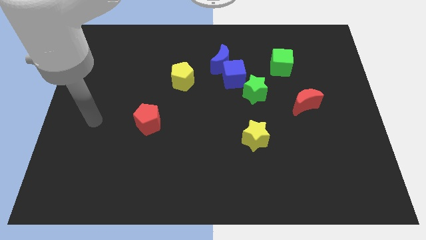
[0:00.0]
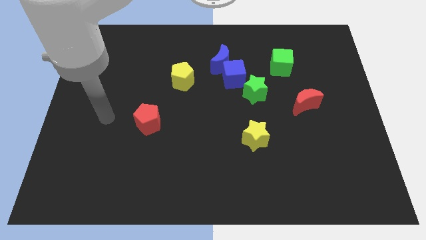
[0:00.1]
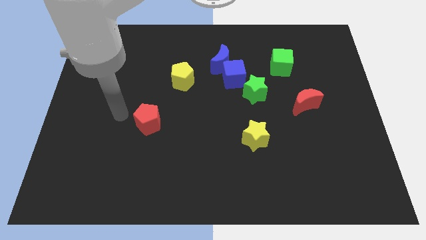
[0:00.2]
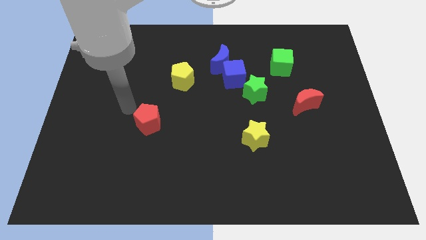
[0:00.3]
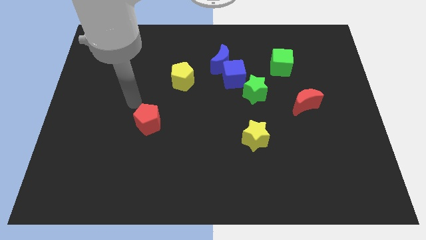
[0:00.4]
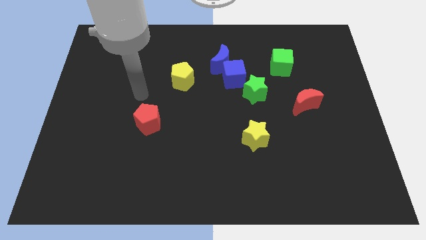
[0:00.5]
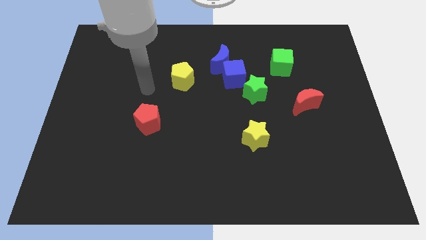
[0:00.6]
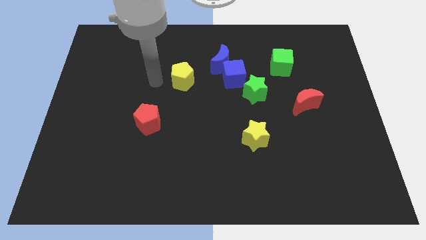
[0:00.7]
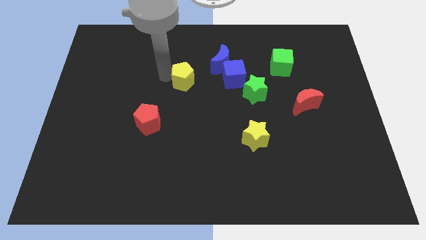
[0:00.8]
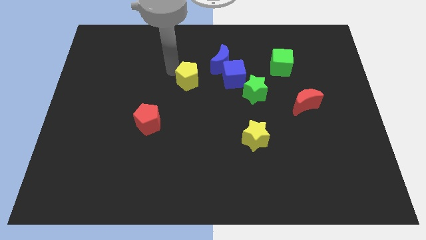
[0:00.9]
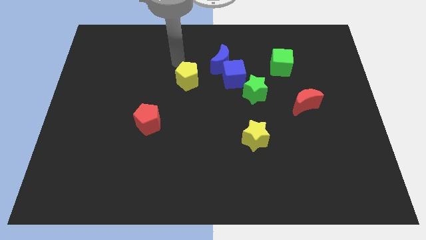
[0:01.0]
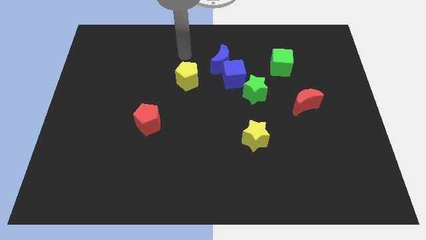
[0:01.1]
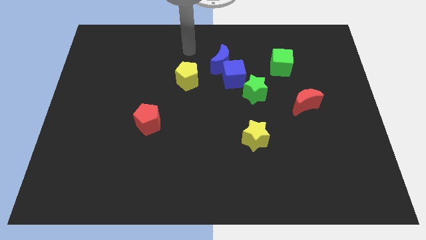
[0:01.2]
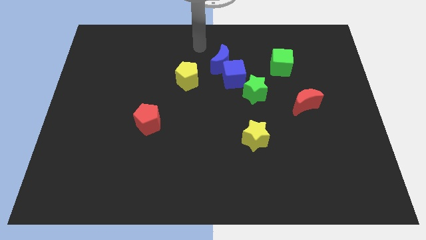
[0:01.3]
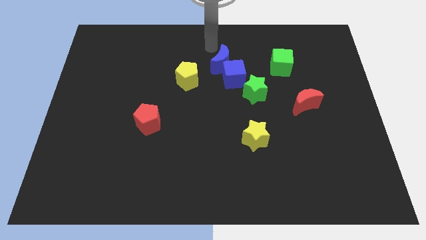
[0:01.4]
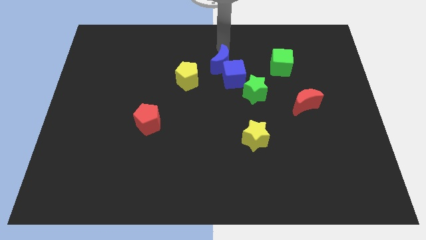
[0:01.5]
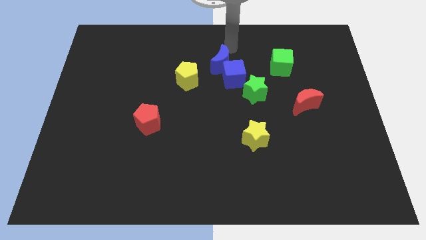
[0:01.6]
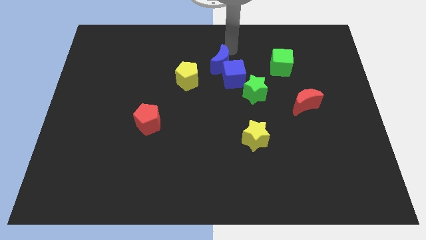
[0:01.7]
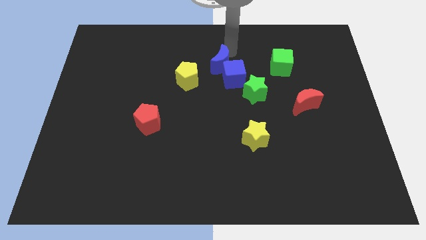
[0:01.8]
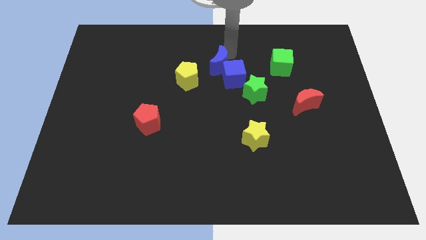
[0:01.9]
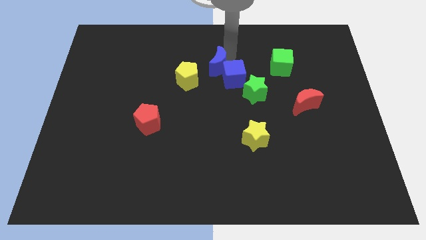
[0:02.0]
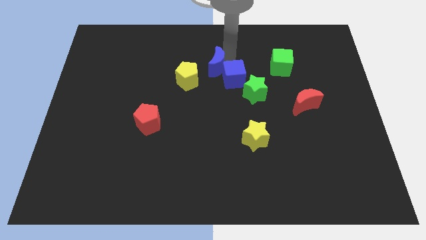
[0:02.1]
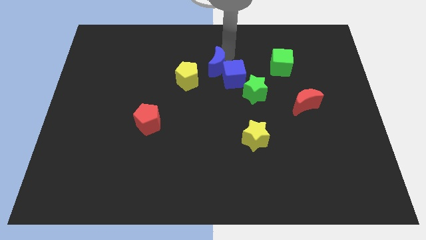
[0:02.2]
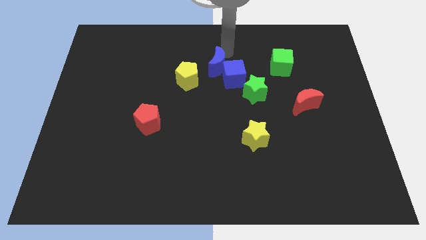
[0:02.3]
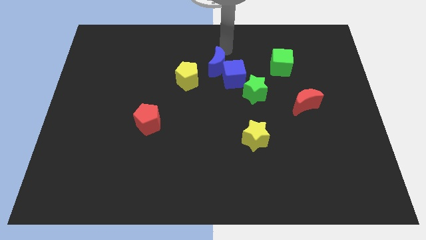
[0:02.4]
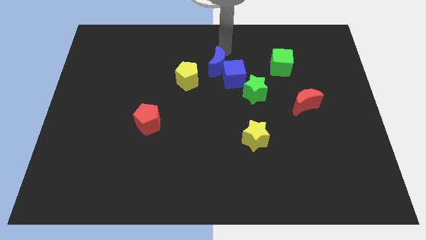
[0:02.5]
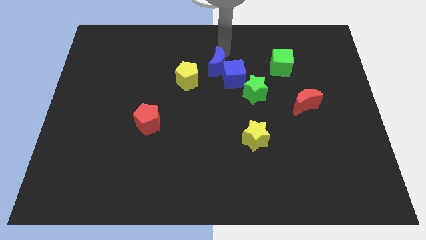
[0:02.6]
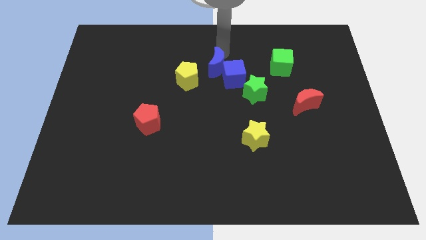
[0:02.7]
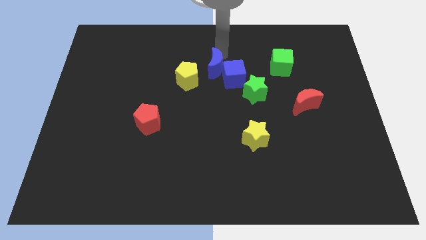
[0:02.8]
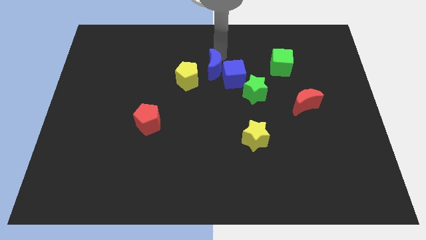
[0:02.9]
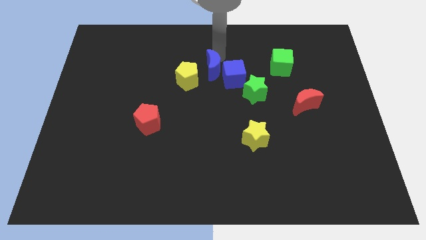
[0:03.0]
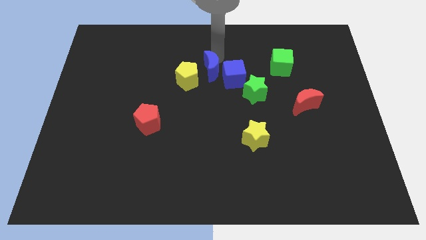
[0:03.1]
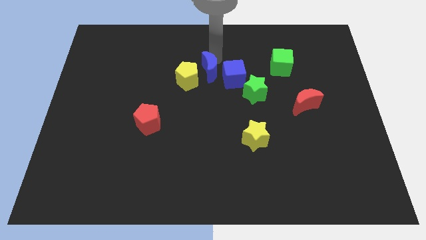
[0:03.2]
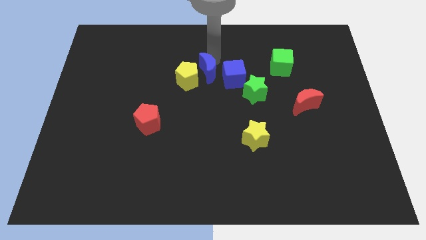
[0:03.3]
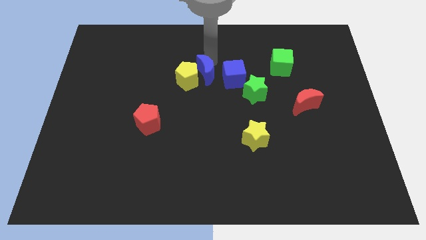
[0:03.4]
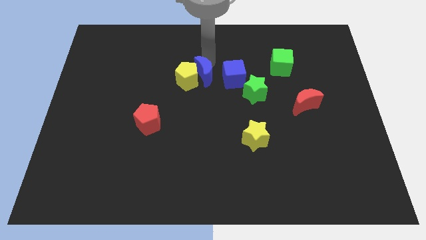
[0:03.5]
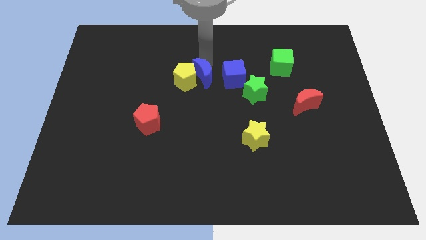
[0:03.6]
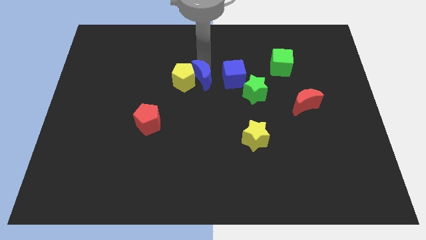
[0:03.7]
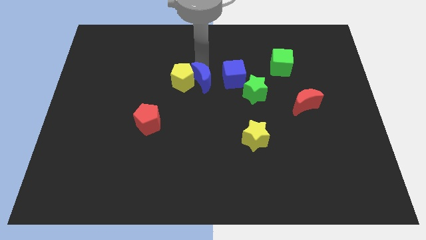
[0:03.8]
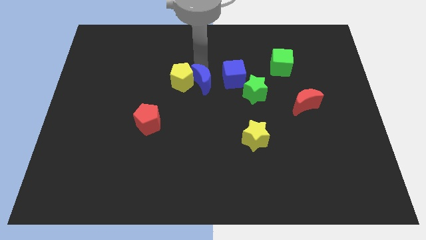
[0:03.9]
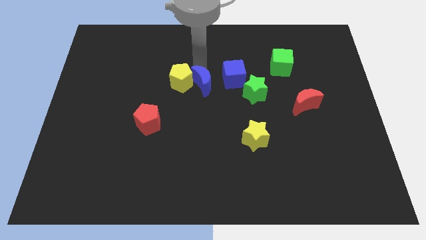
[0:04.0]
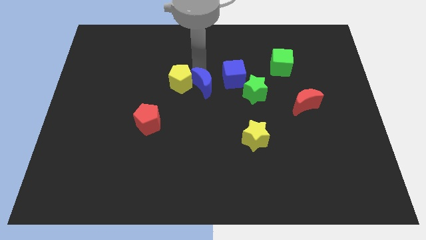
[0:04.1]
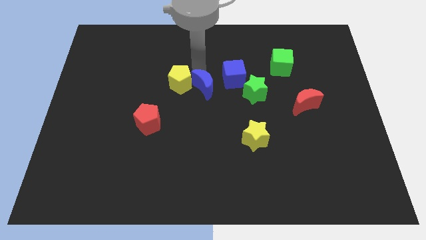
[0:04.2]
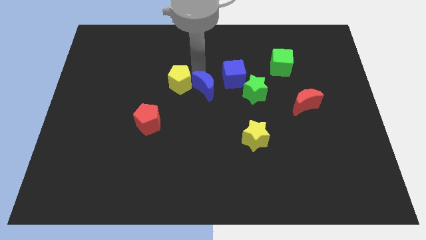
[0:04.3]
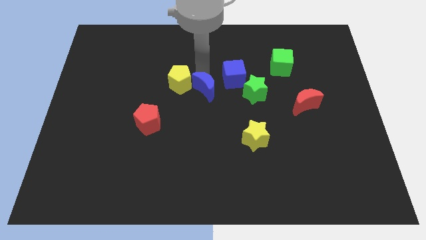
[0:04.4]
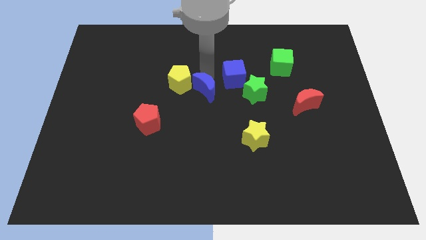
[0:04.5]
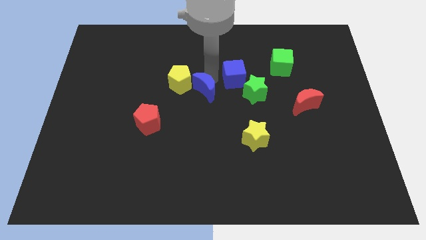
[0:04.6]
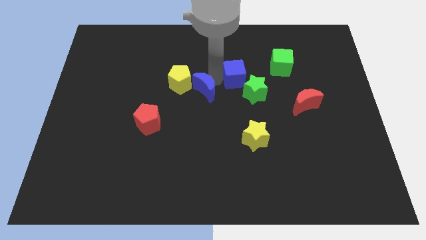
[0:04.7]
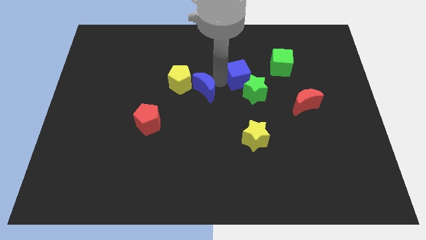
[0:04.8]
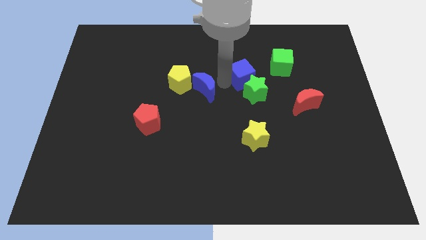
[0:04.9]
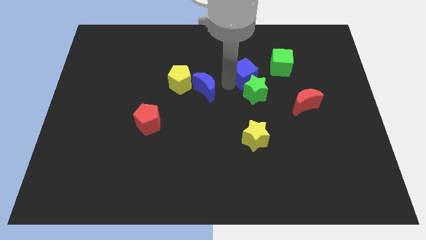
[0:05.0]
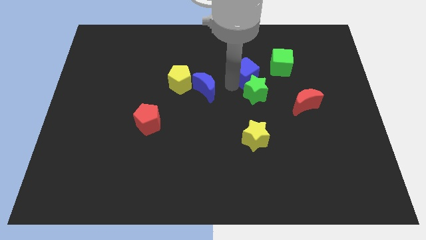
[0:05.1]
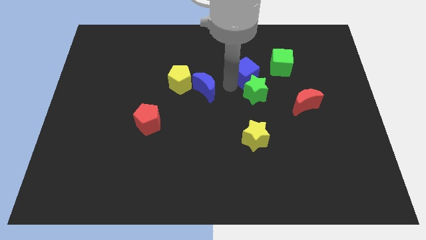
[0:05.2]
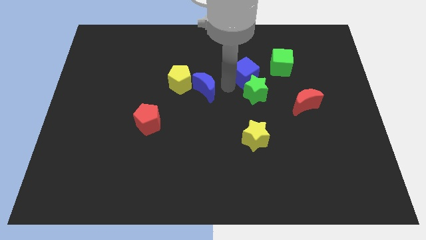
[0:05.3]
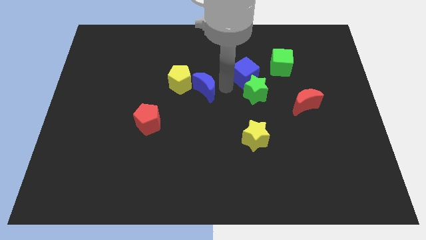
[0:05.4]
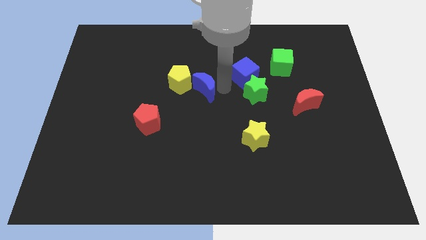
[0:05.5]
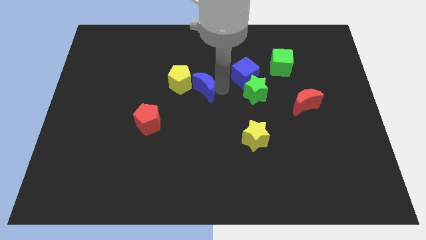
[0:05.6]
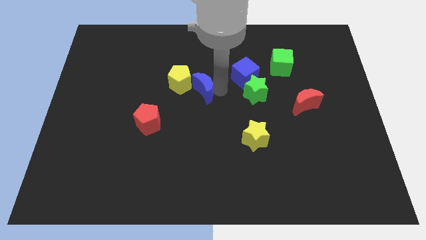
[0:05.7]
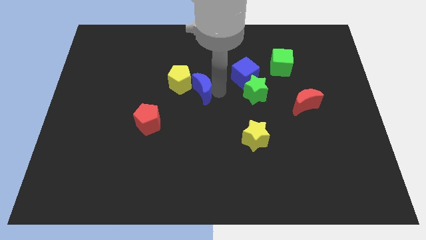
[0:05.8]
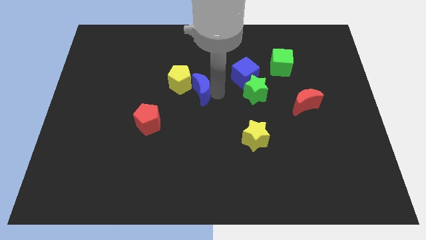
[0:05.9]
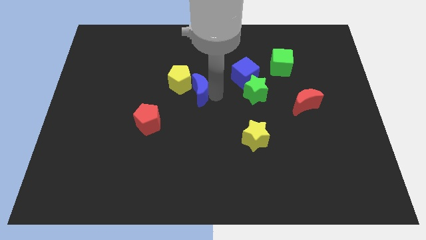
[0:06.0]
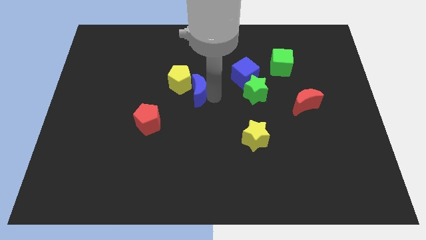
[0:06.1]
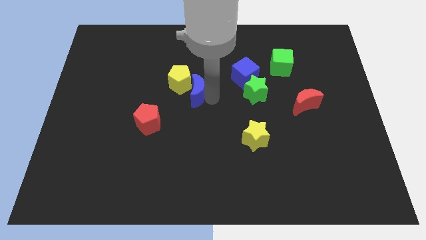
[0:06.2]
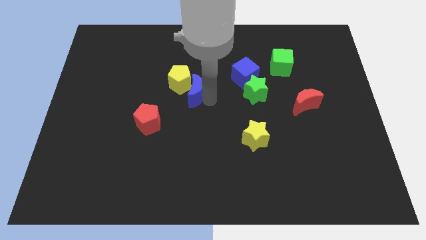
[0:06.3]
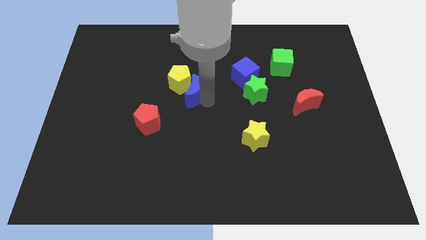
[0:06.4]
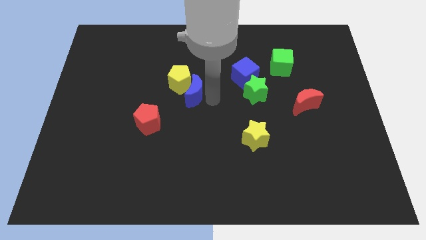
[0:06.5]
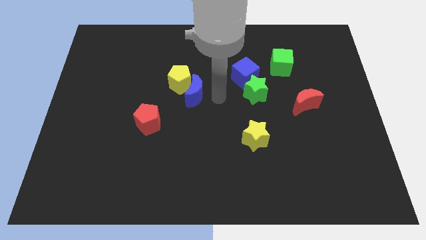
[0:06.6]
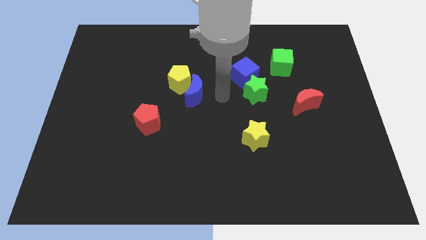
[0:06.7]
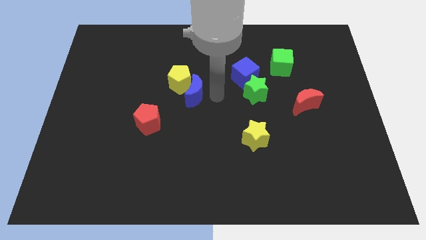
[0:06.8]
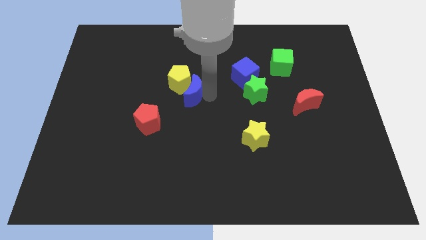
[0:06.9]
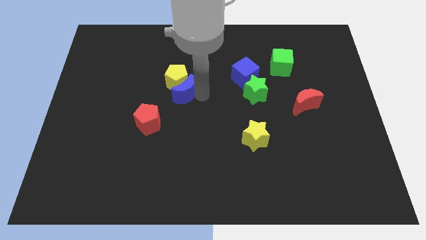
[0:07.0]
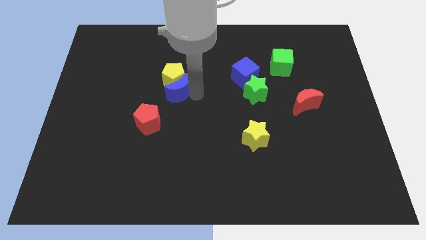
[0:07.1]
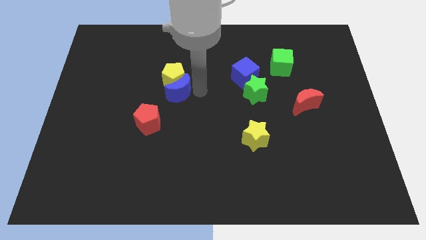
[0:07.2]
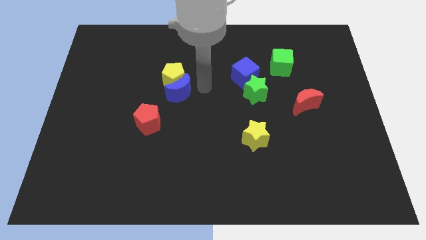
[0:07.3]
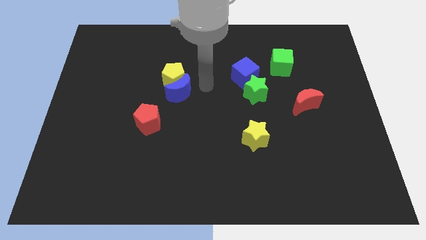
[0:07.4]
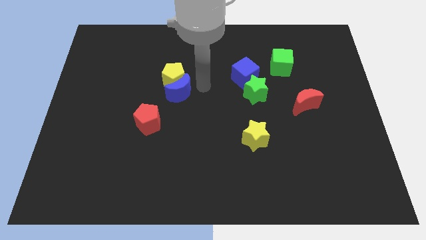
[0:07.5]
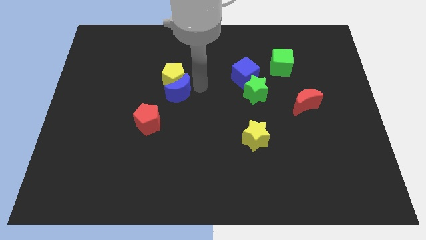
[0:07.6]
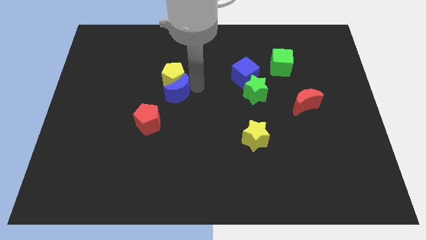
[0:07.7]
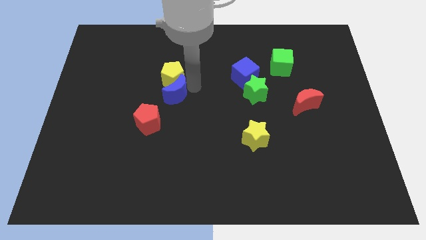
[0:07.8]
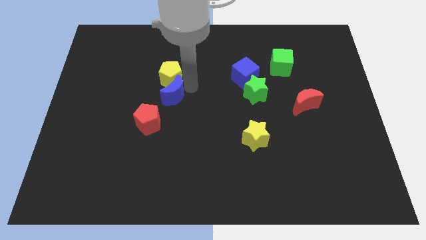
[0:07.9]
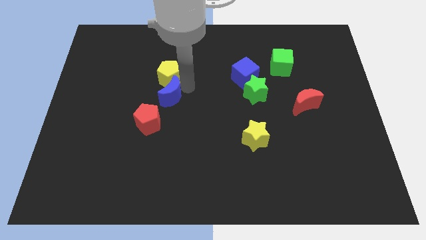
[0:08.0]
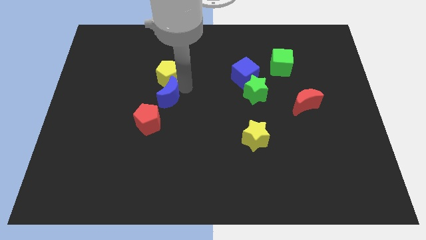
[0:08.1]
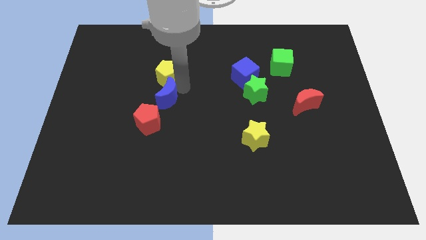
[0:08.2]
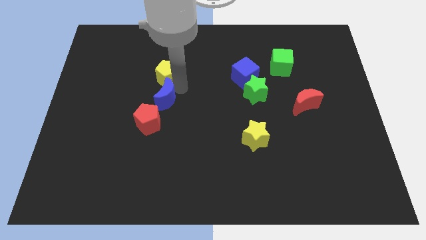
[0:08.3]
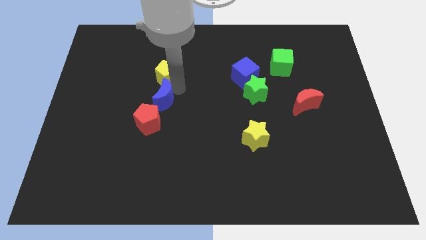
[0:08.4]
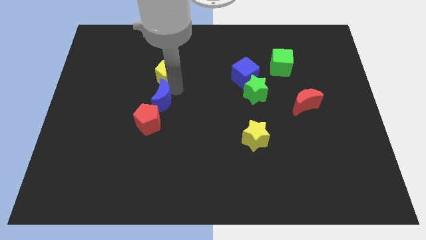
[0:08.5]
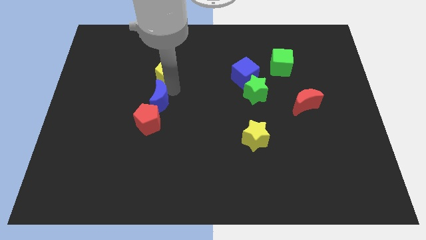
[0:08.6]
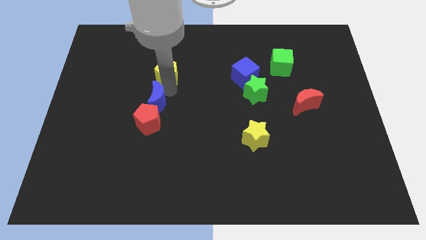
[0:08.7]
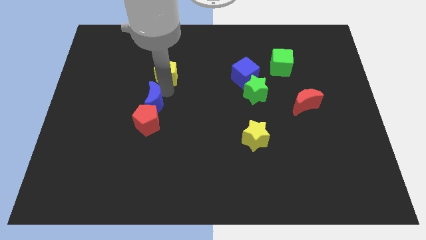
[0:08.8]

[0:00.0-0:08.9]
push the blue moon downwards and left
